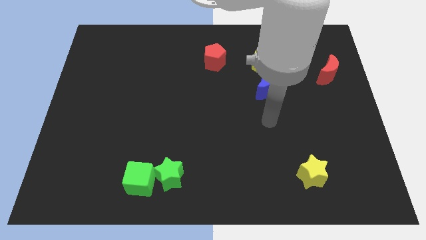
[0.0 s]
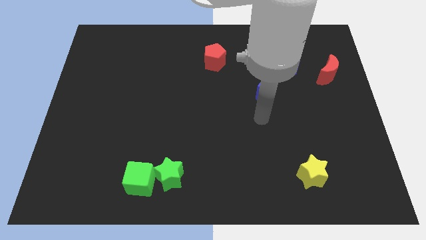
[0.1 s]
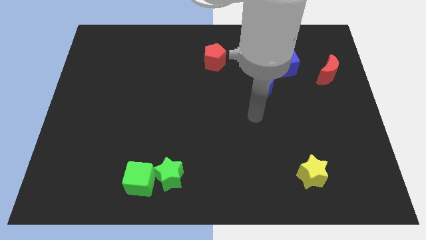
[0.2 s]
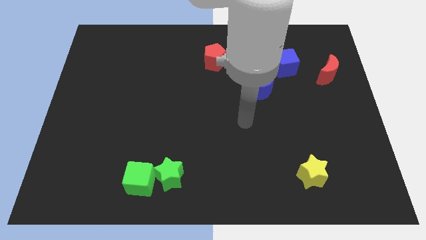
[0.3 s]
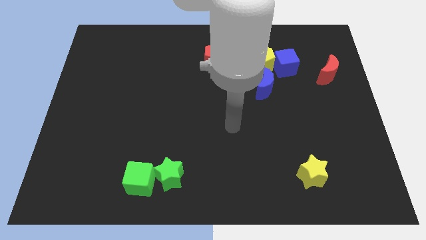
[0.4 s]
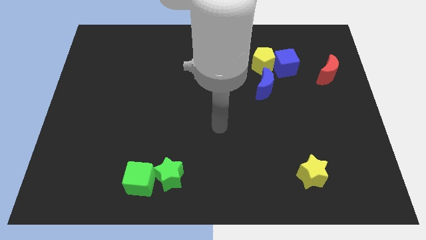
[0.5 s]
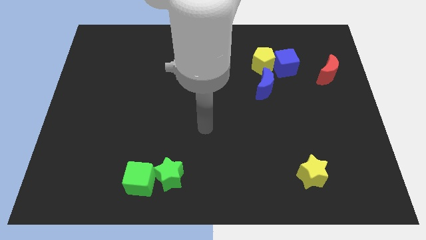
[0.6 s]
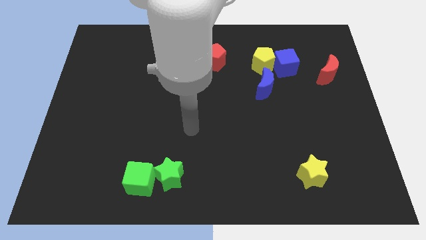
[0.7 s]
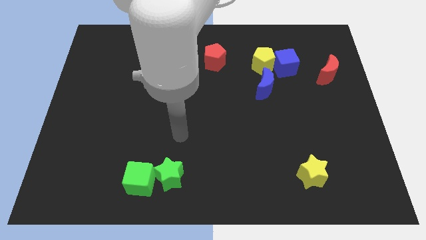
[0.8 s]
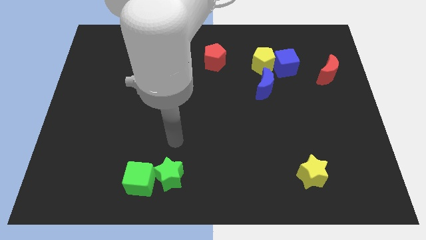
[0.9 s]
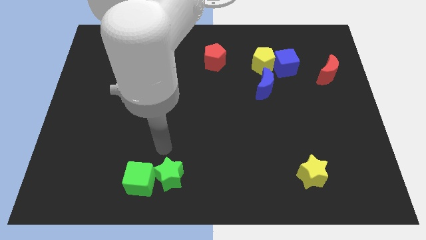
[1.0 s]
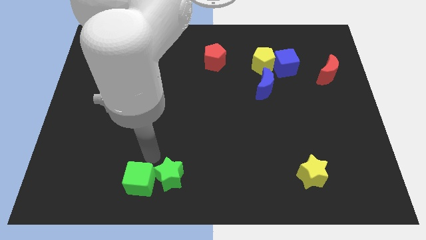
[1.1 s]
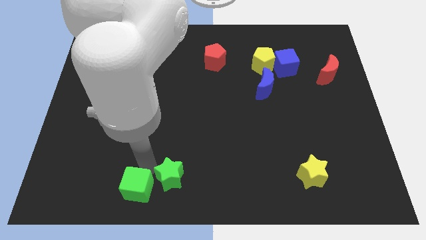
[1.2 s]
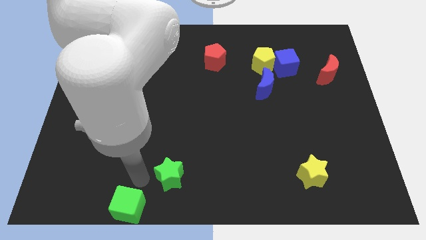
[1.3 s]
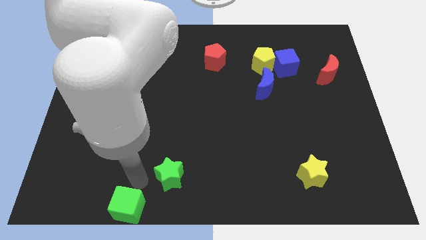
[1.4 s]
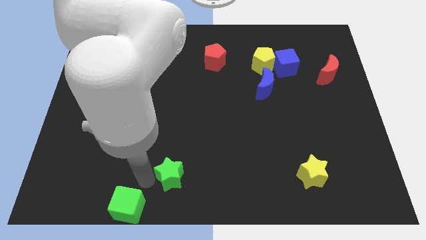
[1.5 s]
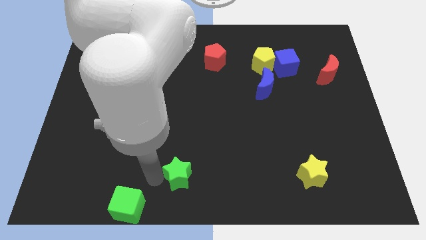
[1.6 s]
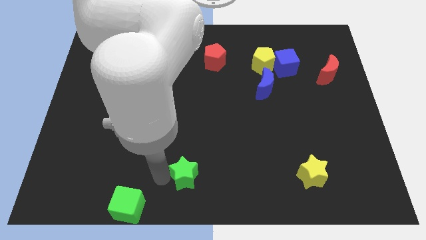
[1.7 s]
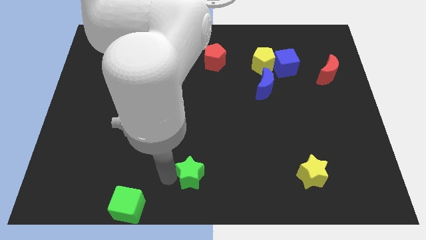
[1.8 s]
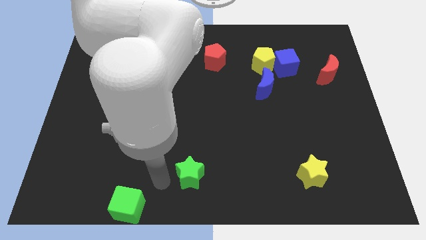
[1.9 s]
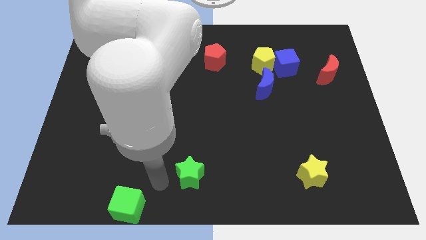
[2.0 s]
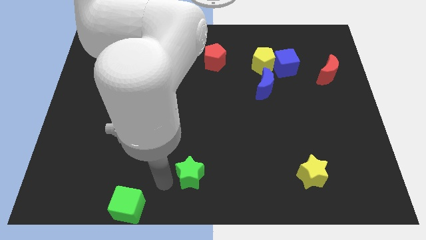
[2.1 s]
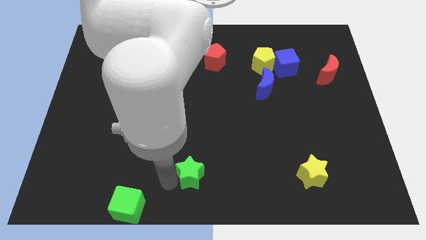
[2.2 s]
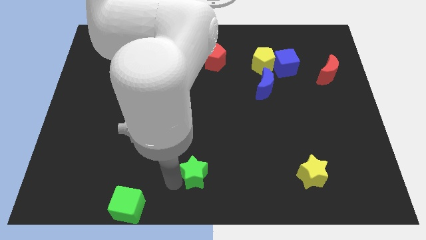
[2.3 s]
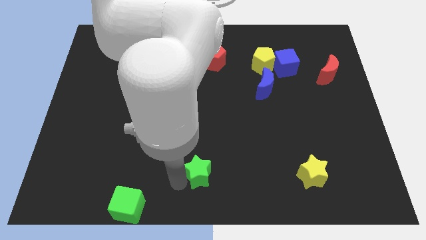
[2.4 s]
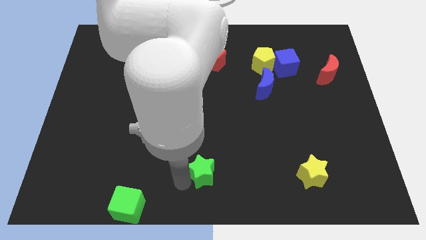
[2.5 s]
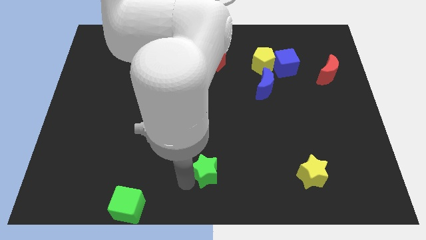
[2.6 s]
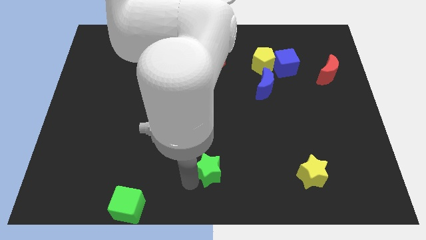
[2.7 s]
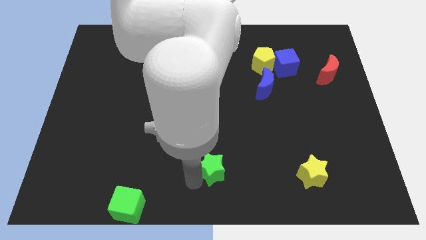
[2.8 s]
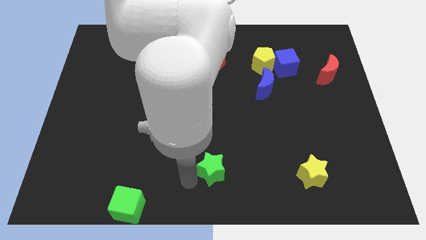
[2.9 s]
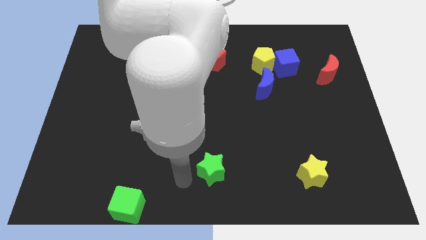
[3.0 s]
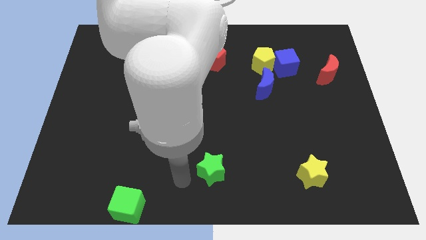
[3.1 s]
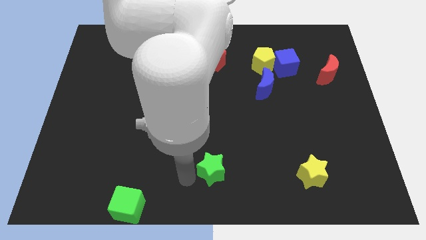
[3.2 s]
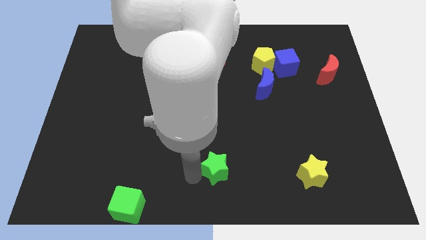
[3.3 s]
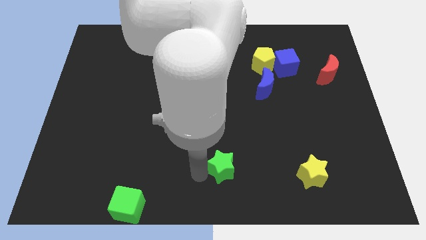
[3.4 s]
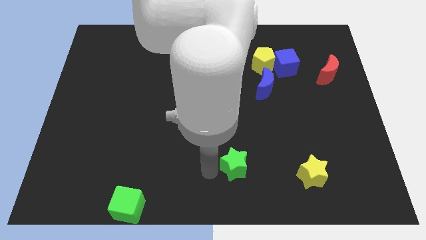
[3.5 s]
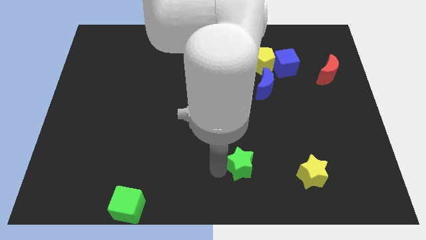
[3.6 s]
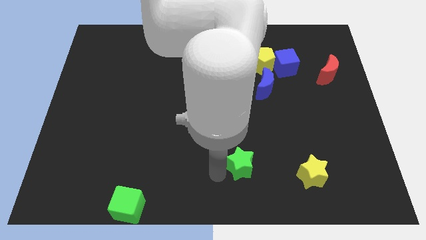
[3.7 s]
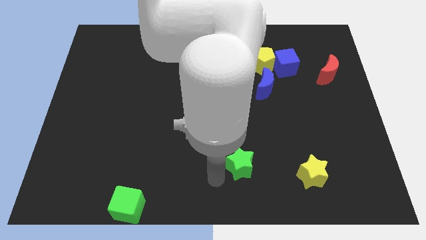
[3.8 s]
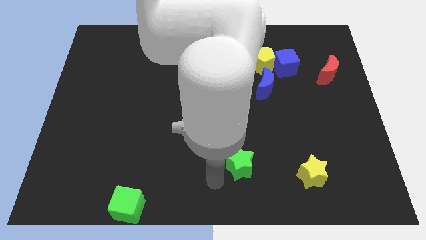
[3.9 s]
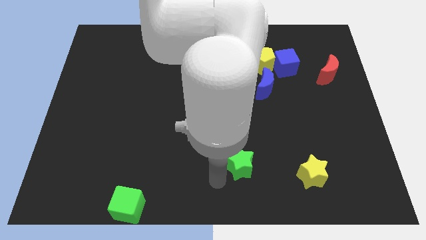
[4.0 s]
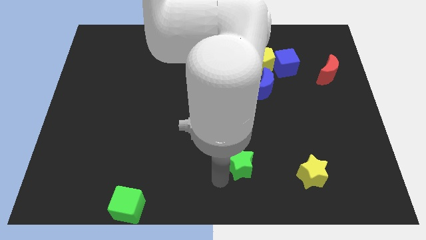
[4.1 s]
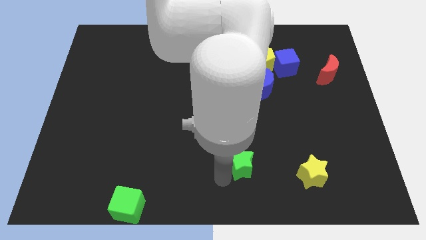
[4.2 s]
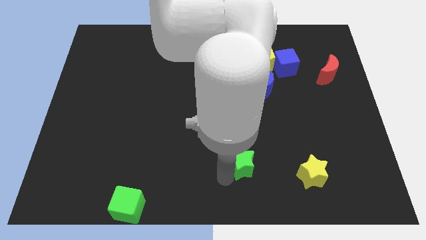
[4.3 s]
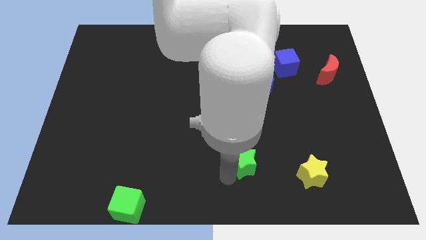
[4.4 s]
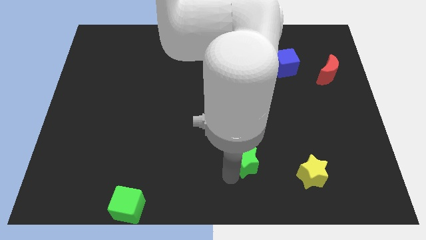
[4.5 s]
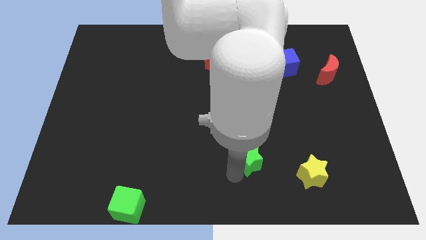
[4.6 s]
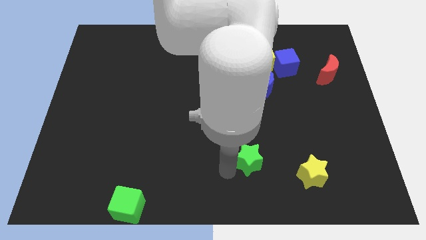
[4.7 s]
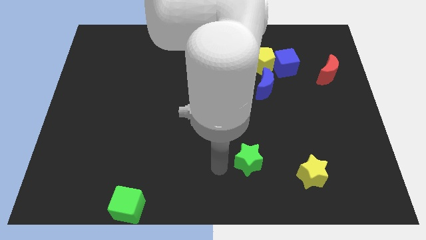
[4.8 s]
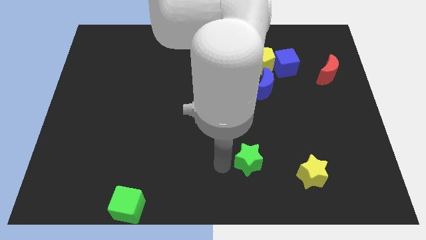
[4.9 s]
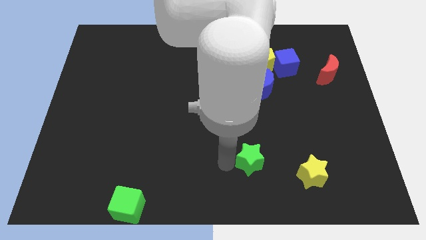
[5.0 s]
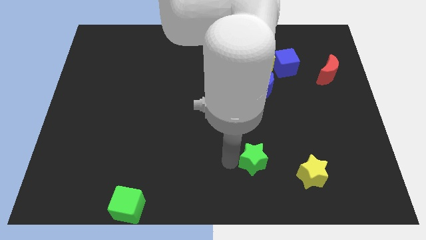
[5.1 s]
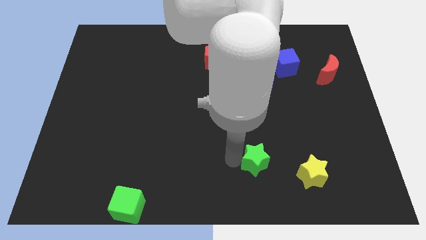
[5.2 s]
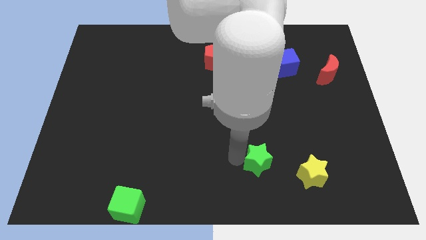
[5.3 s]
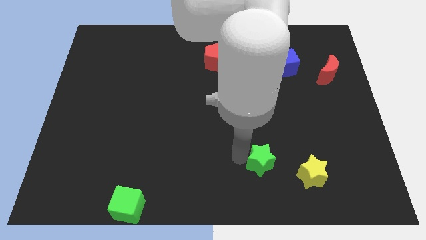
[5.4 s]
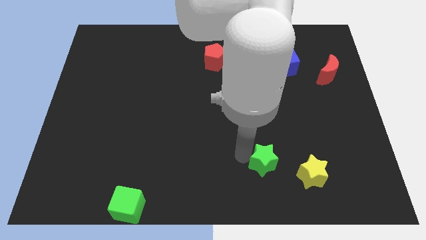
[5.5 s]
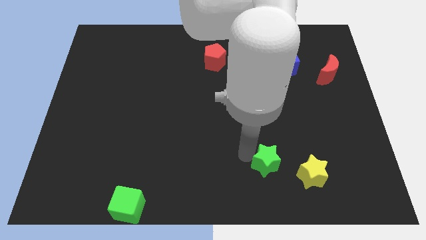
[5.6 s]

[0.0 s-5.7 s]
slide the green star to the top left of the yellow star

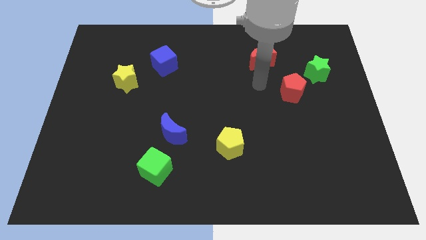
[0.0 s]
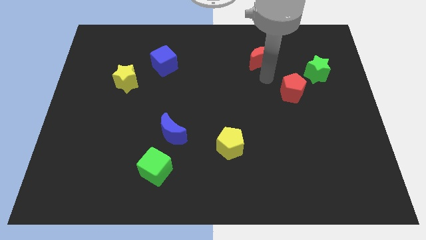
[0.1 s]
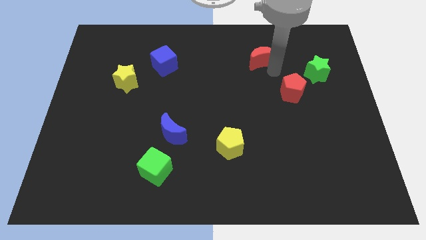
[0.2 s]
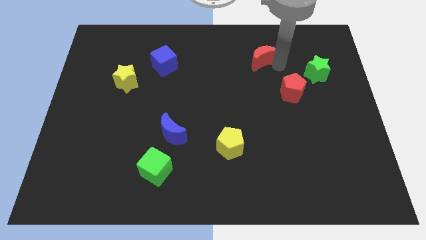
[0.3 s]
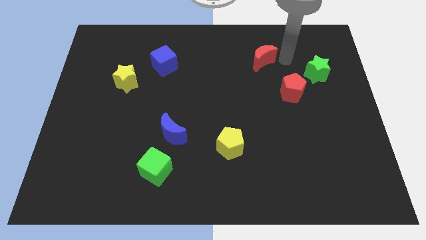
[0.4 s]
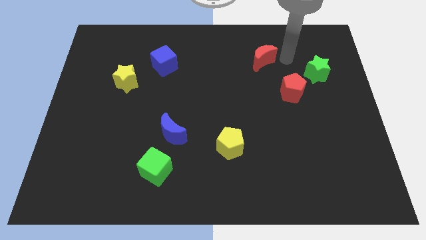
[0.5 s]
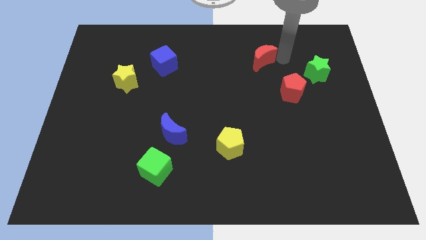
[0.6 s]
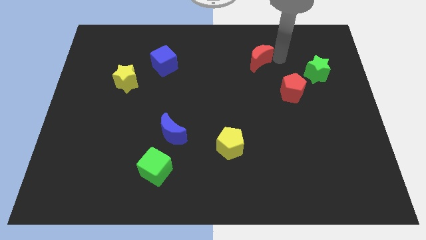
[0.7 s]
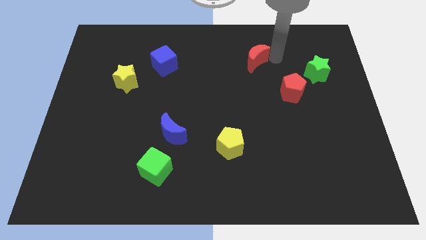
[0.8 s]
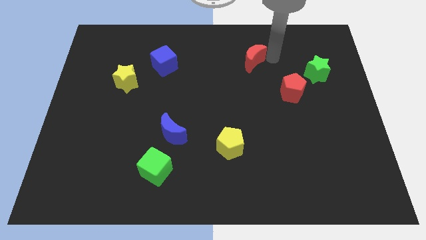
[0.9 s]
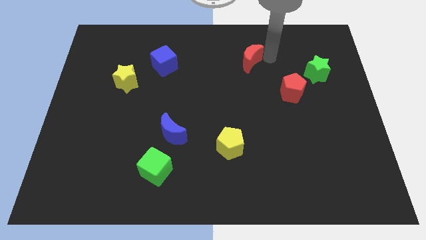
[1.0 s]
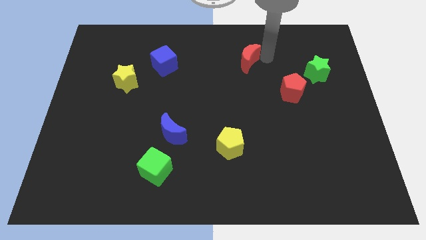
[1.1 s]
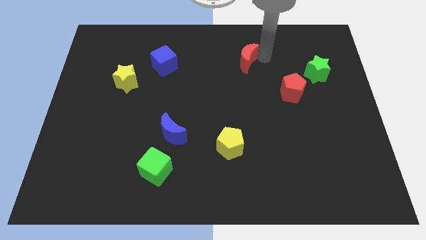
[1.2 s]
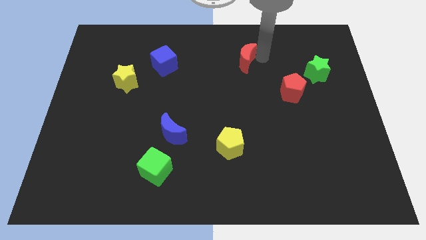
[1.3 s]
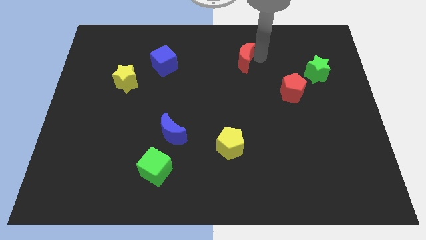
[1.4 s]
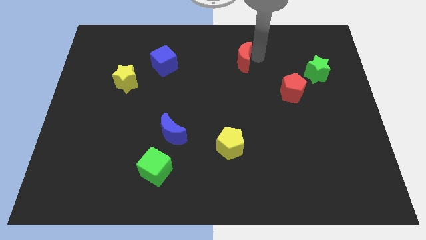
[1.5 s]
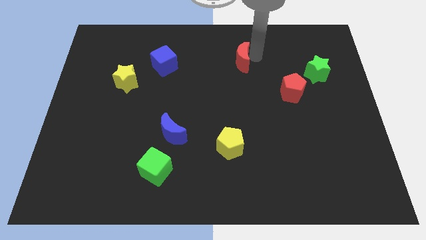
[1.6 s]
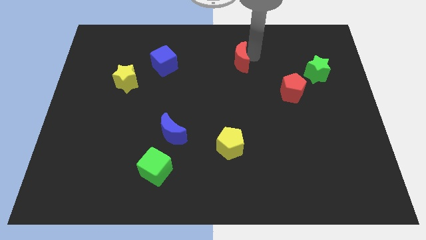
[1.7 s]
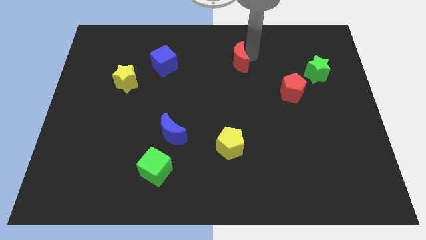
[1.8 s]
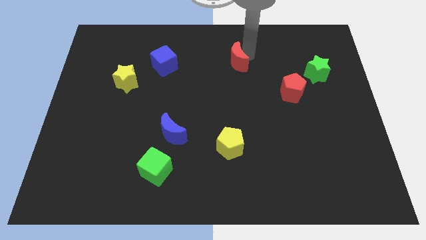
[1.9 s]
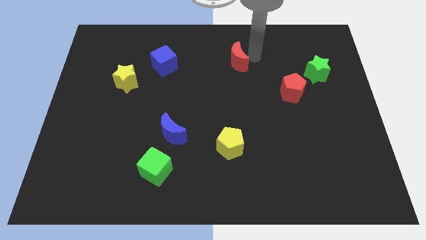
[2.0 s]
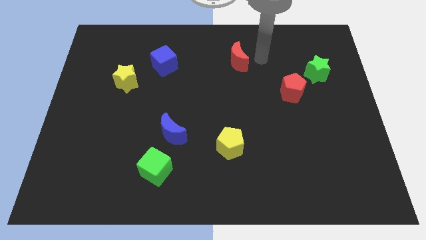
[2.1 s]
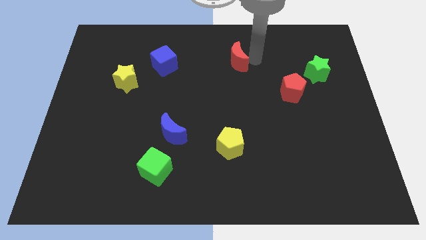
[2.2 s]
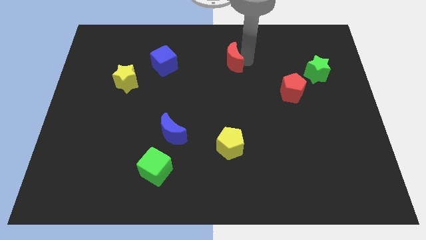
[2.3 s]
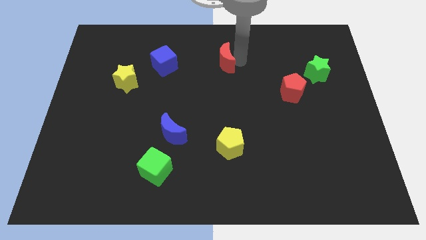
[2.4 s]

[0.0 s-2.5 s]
slide the red moon right of the blue cube
